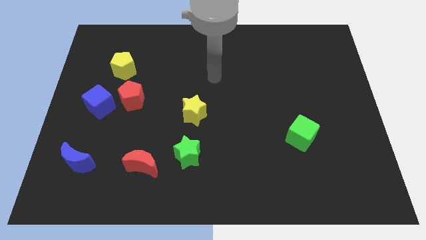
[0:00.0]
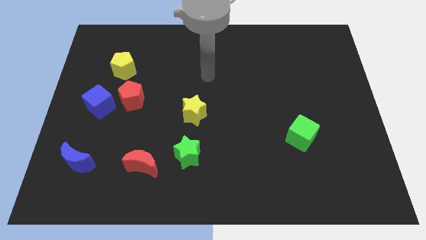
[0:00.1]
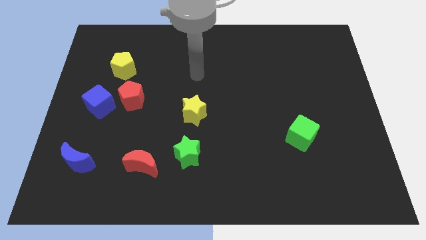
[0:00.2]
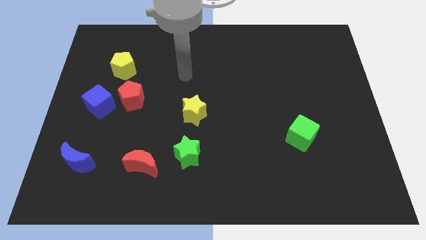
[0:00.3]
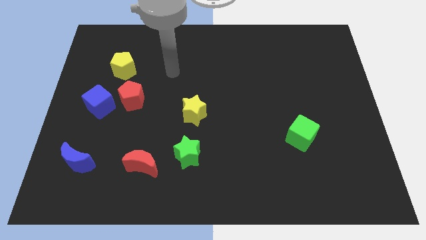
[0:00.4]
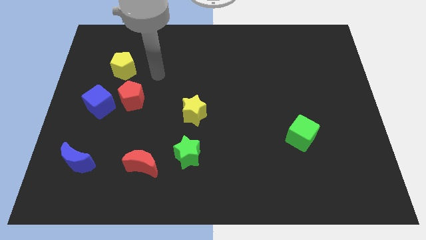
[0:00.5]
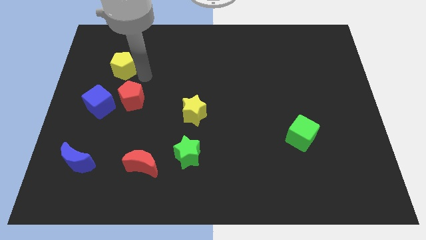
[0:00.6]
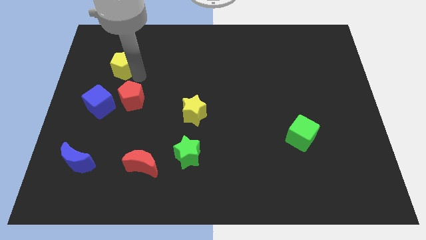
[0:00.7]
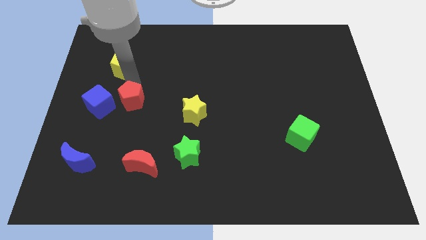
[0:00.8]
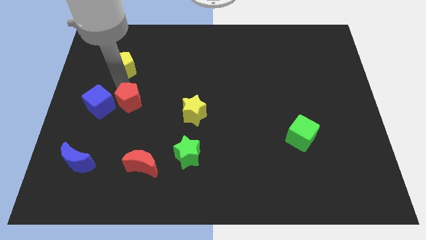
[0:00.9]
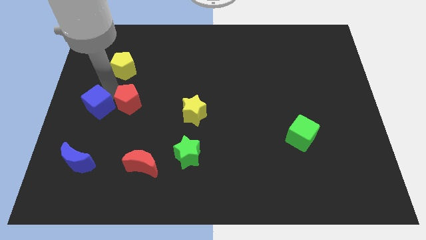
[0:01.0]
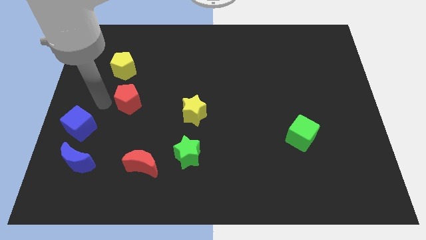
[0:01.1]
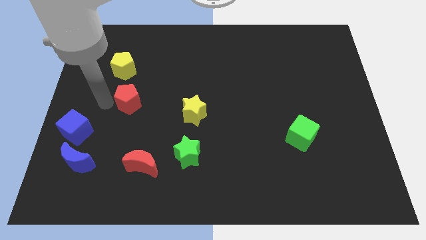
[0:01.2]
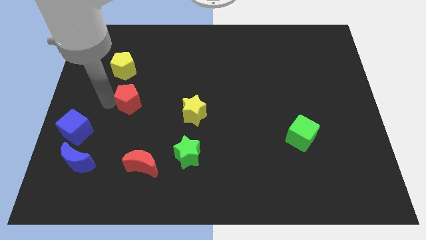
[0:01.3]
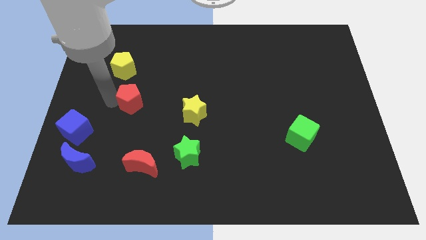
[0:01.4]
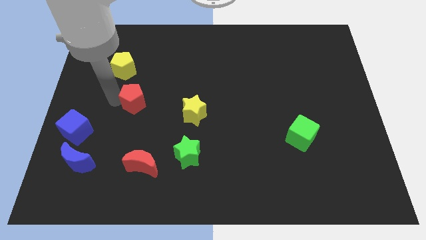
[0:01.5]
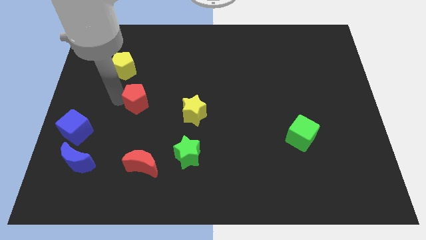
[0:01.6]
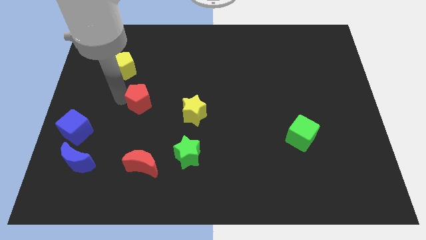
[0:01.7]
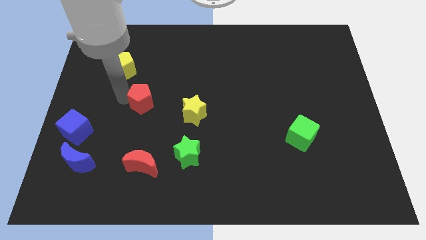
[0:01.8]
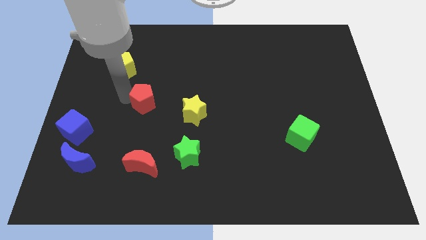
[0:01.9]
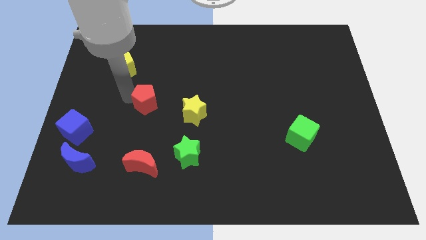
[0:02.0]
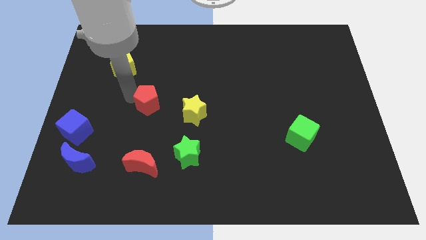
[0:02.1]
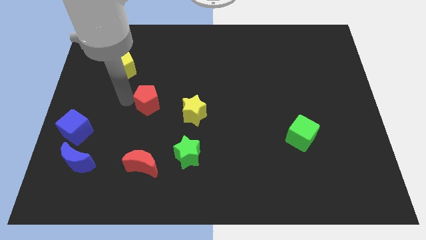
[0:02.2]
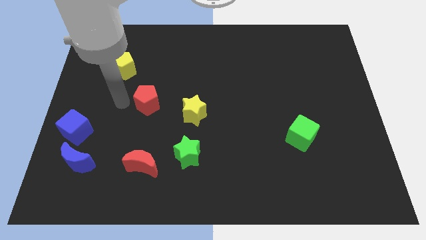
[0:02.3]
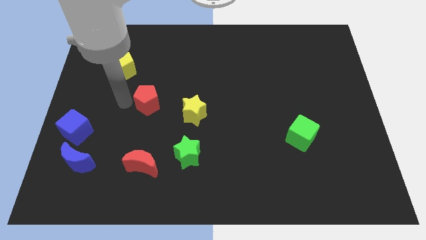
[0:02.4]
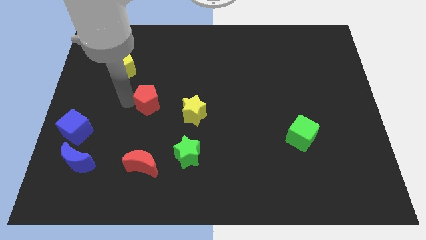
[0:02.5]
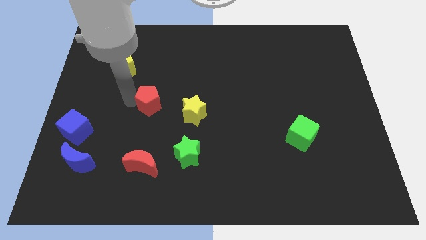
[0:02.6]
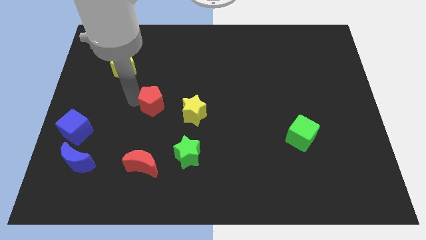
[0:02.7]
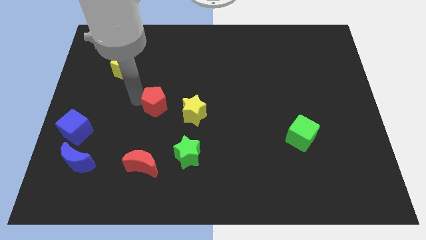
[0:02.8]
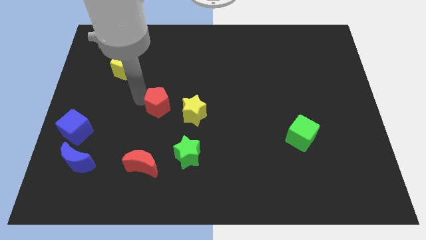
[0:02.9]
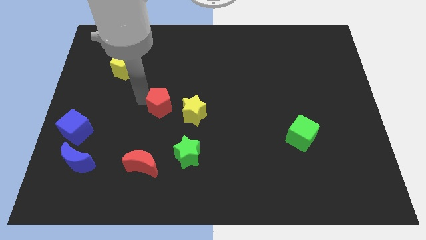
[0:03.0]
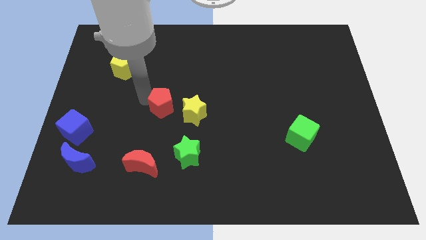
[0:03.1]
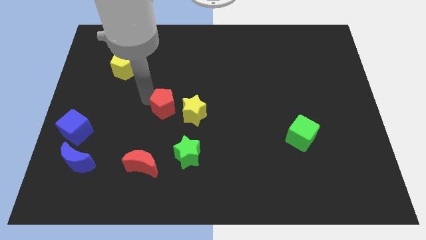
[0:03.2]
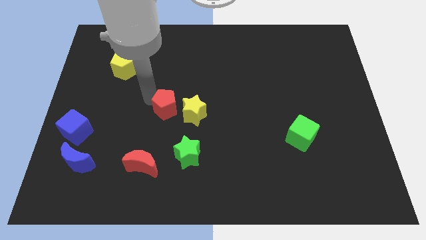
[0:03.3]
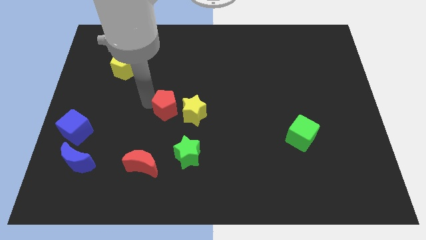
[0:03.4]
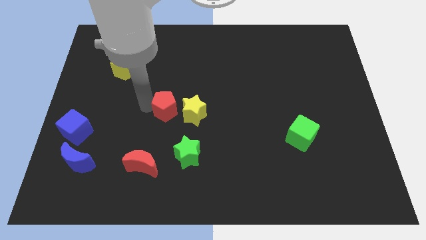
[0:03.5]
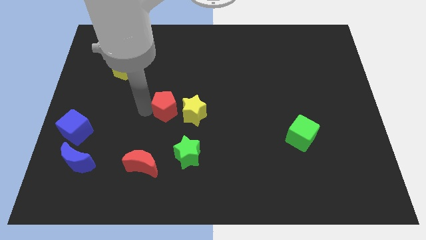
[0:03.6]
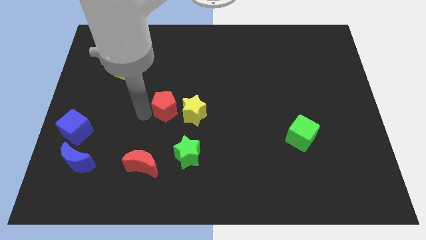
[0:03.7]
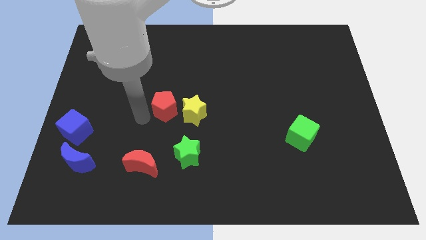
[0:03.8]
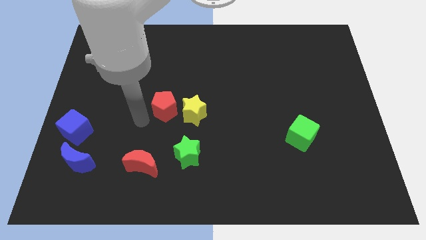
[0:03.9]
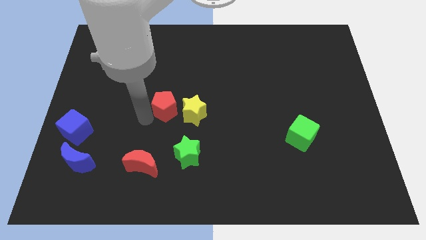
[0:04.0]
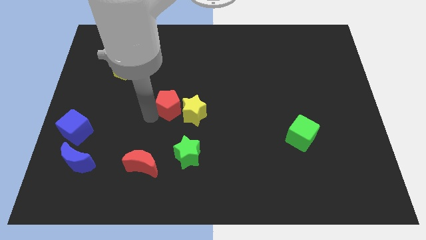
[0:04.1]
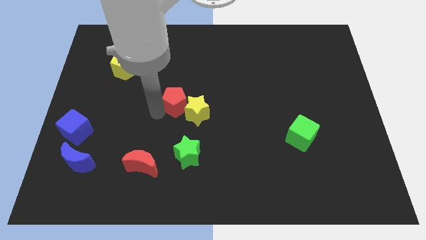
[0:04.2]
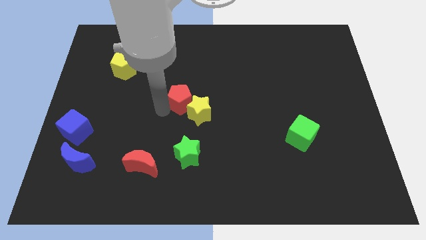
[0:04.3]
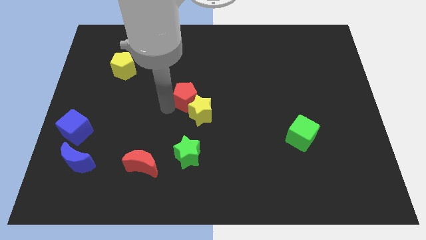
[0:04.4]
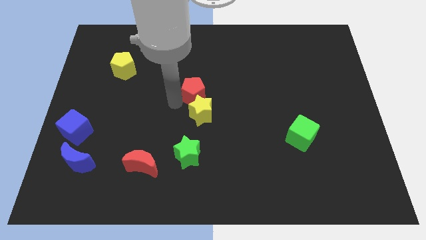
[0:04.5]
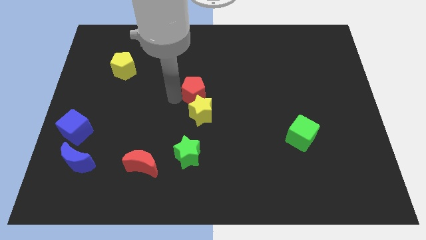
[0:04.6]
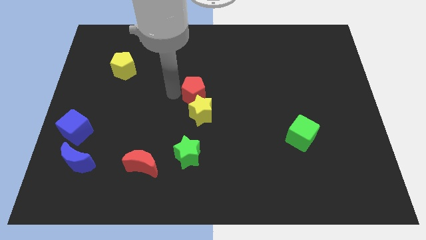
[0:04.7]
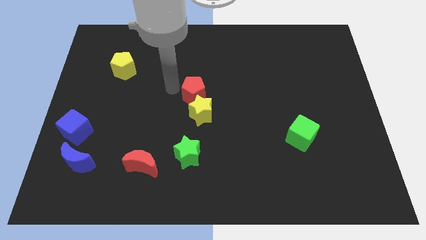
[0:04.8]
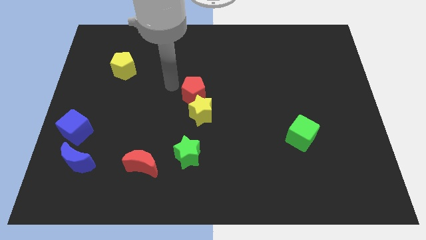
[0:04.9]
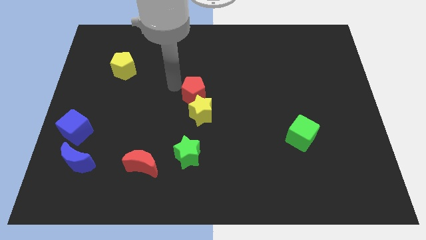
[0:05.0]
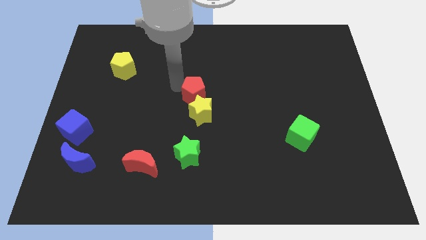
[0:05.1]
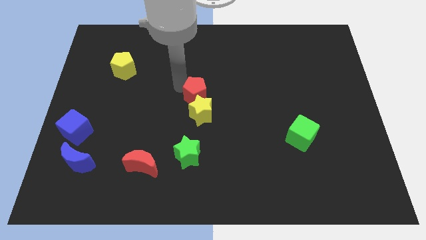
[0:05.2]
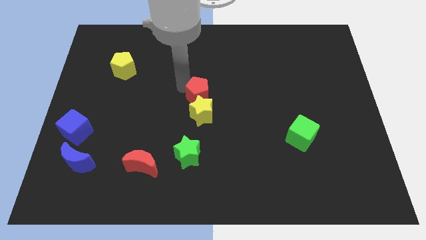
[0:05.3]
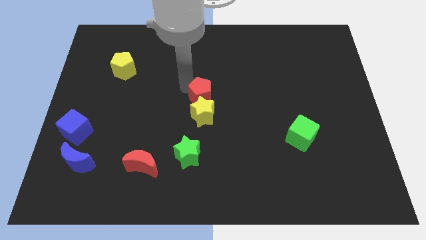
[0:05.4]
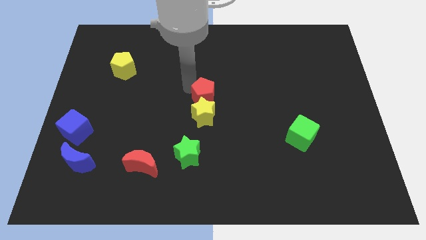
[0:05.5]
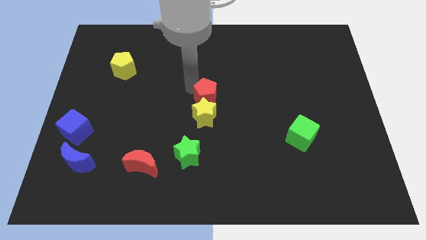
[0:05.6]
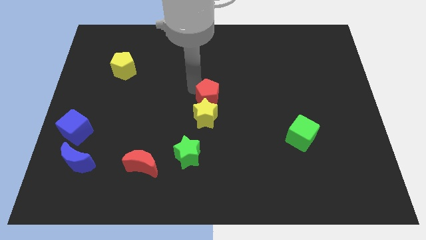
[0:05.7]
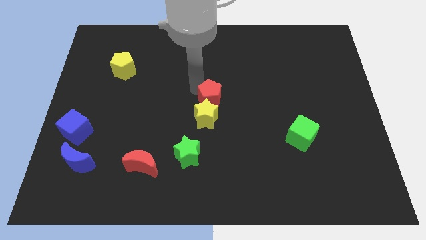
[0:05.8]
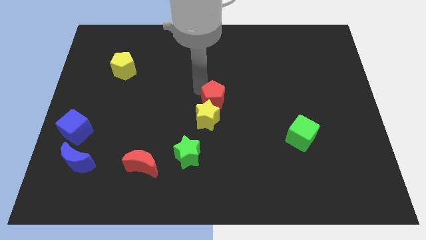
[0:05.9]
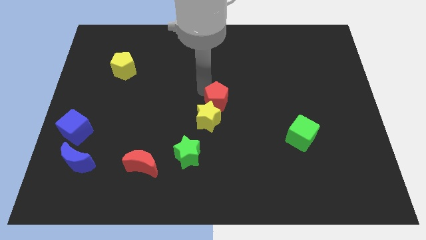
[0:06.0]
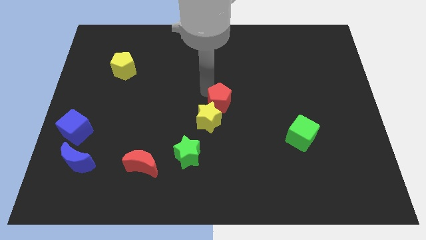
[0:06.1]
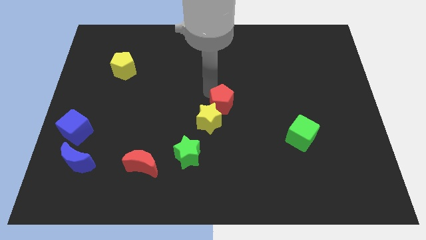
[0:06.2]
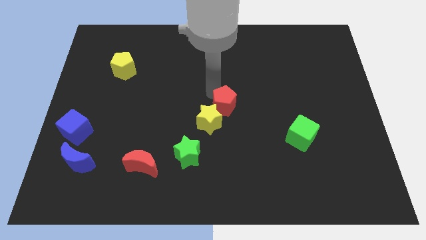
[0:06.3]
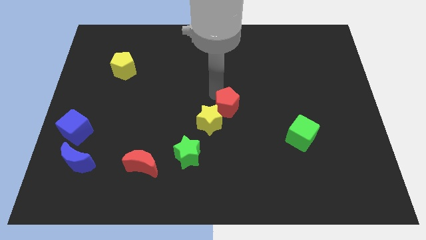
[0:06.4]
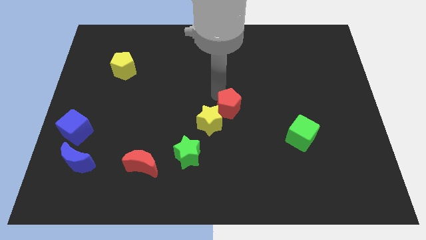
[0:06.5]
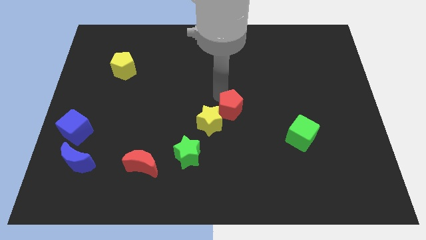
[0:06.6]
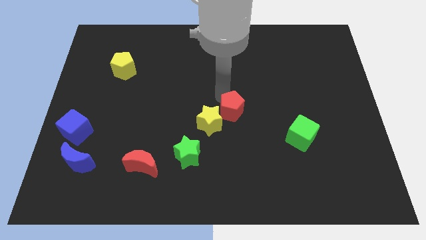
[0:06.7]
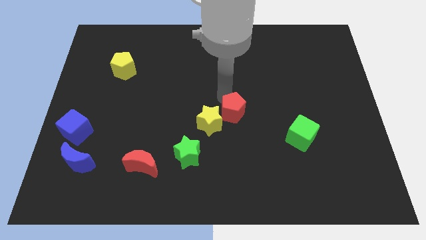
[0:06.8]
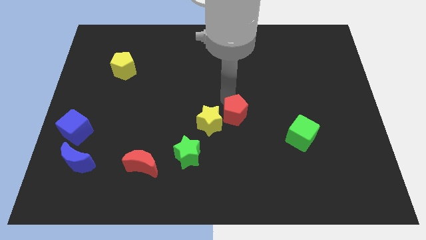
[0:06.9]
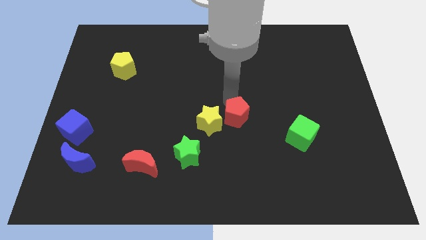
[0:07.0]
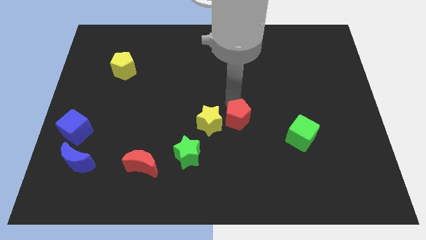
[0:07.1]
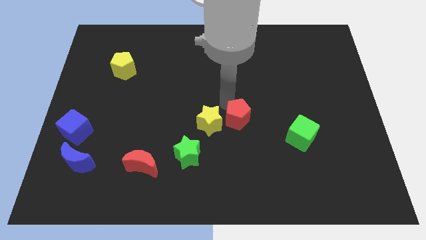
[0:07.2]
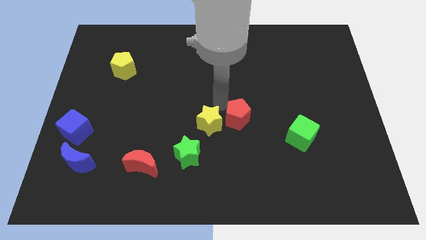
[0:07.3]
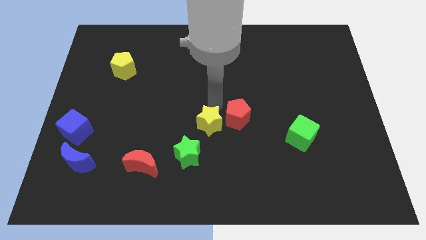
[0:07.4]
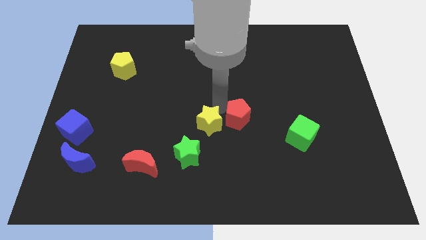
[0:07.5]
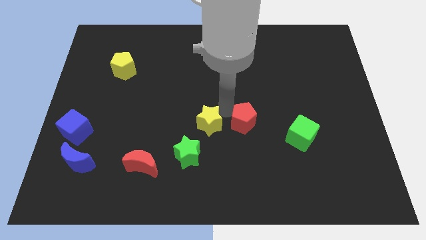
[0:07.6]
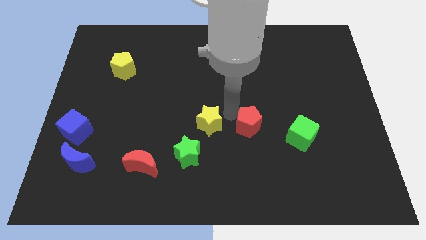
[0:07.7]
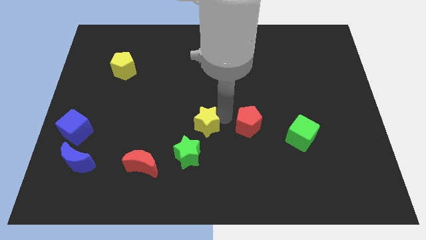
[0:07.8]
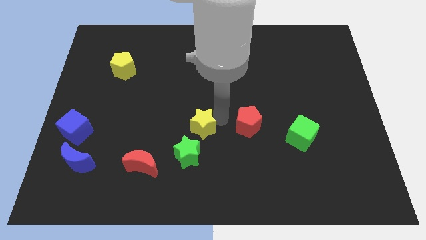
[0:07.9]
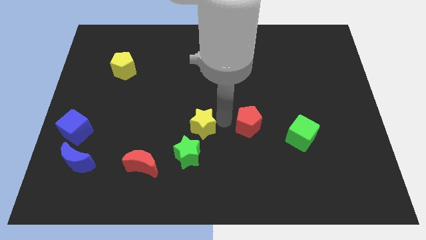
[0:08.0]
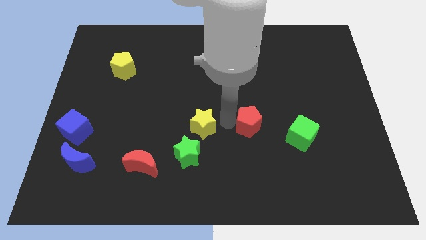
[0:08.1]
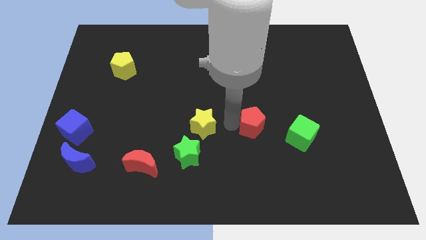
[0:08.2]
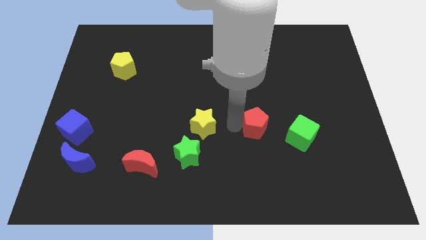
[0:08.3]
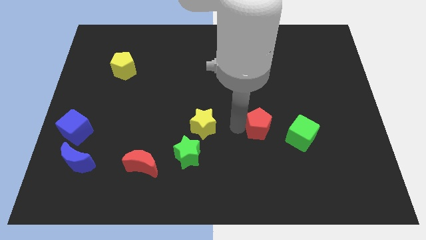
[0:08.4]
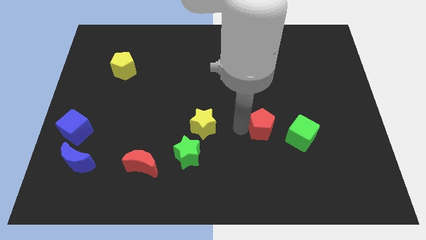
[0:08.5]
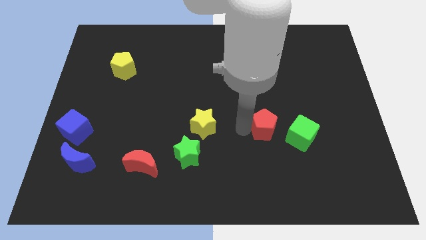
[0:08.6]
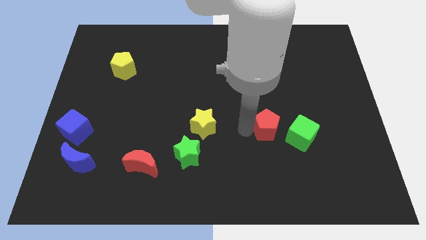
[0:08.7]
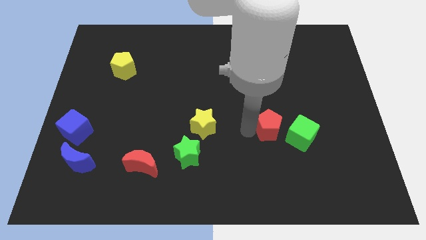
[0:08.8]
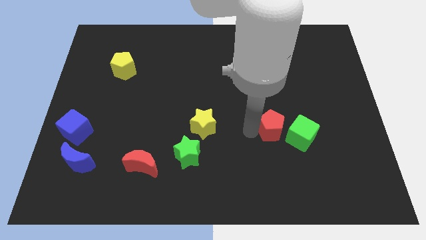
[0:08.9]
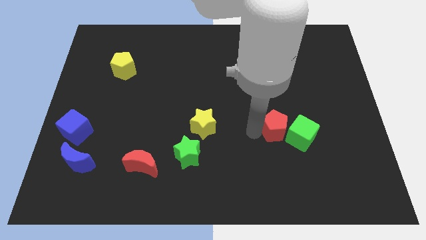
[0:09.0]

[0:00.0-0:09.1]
push the red pentagon towards the green cube
